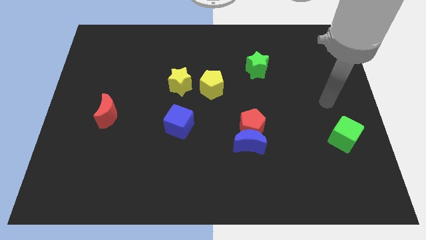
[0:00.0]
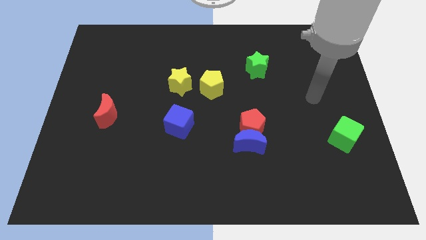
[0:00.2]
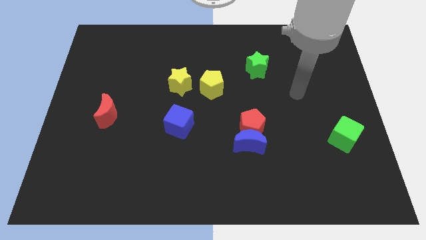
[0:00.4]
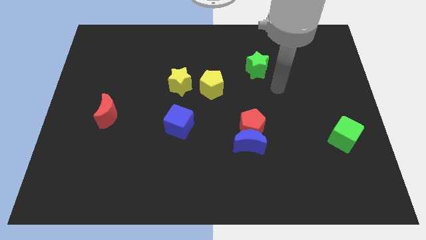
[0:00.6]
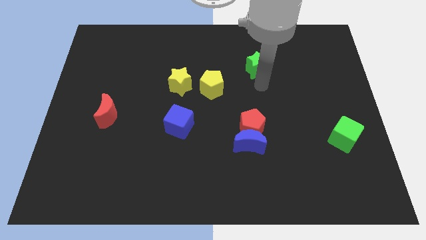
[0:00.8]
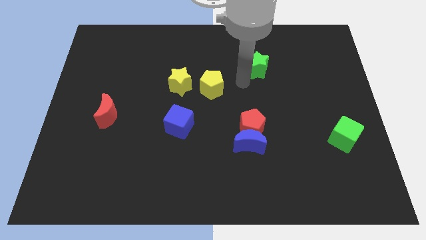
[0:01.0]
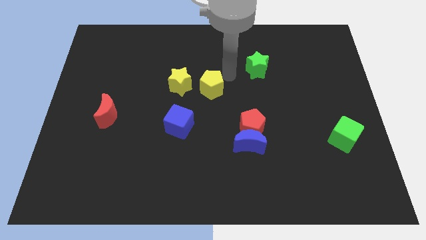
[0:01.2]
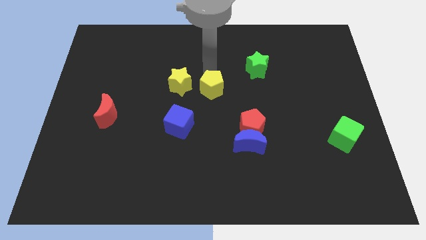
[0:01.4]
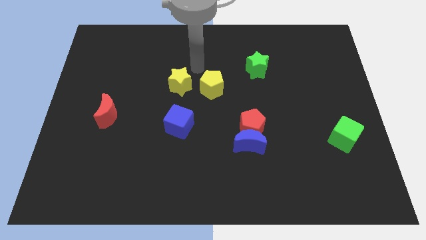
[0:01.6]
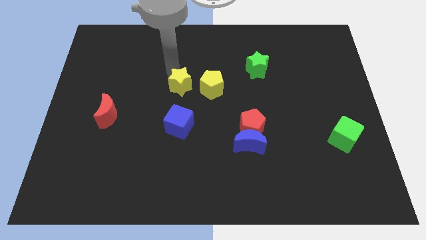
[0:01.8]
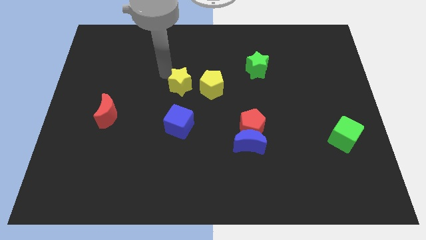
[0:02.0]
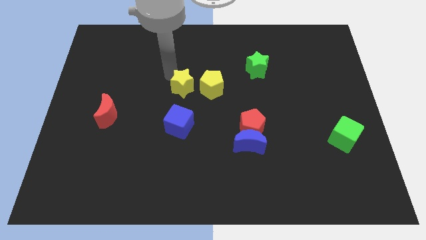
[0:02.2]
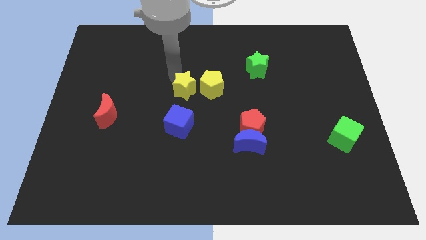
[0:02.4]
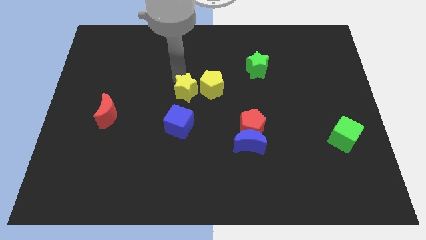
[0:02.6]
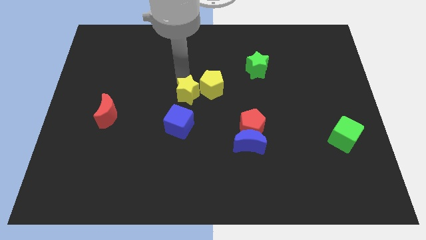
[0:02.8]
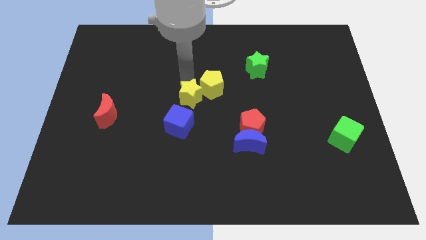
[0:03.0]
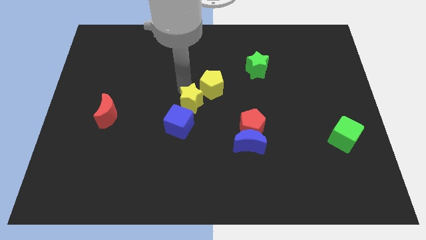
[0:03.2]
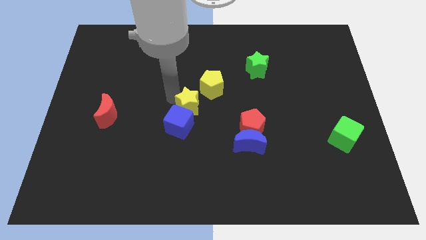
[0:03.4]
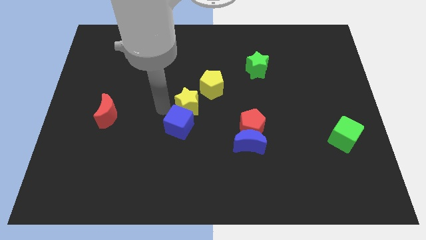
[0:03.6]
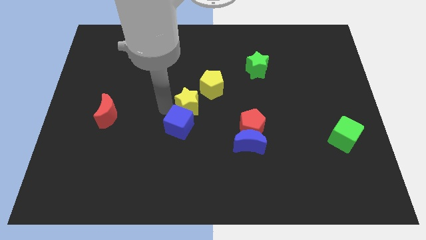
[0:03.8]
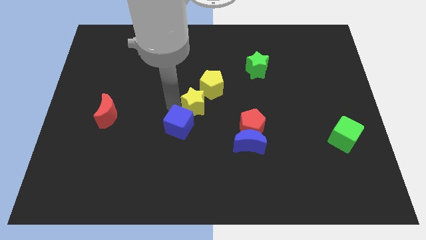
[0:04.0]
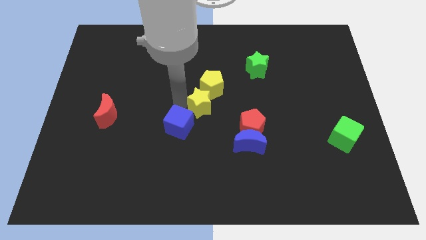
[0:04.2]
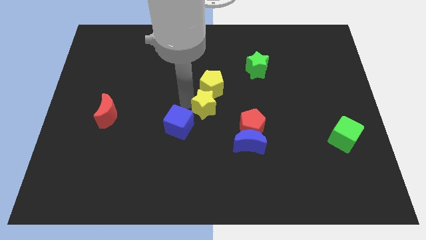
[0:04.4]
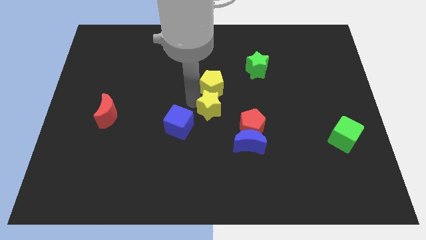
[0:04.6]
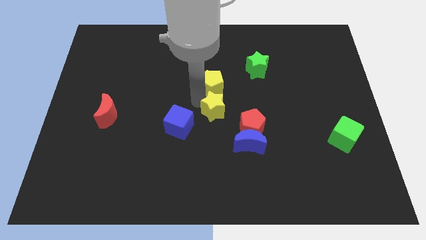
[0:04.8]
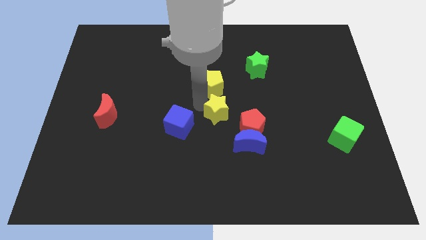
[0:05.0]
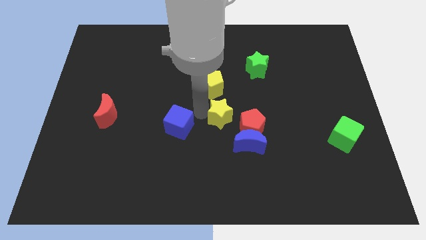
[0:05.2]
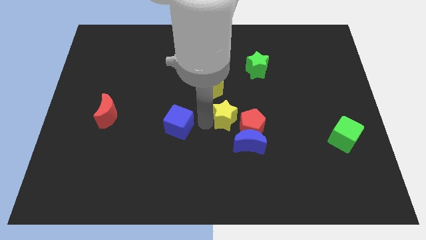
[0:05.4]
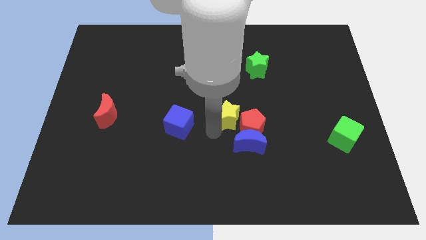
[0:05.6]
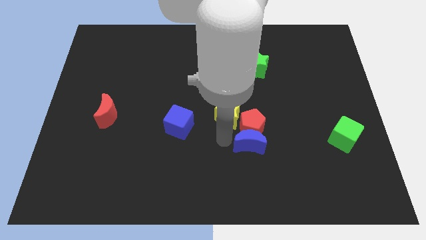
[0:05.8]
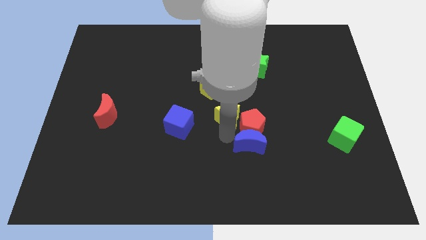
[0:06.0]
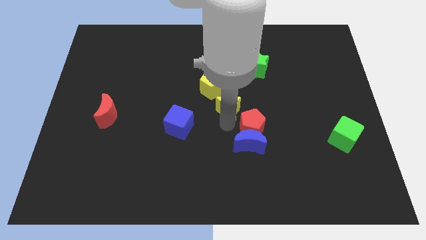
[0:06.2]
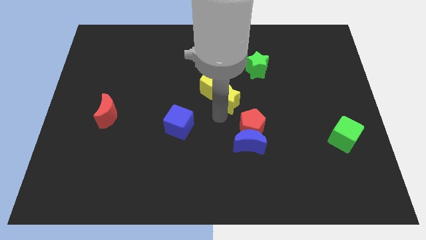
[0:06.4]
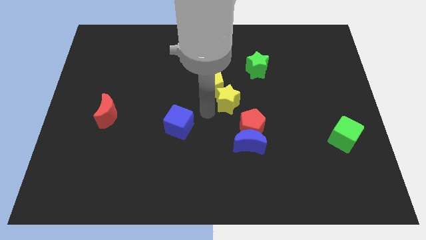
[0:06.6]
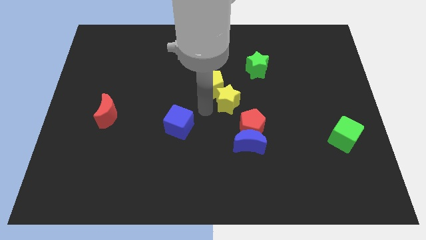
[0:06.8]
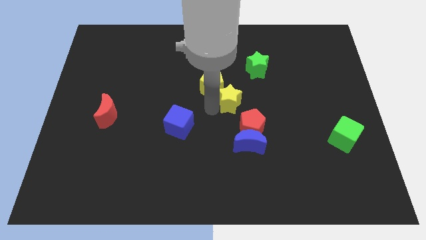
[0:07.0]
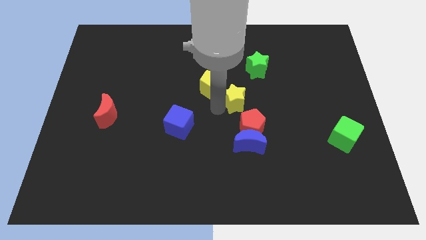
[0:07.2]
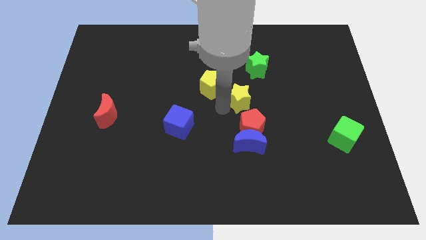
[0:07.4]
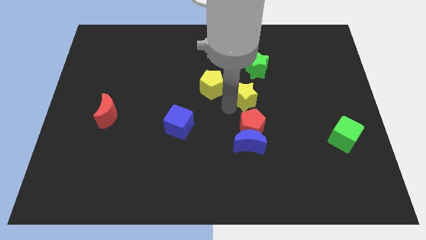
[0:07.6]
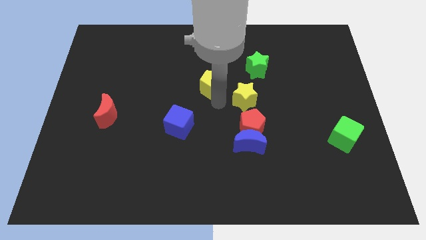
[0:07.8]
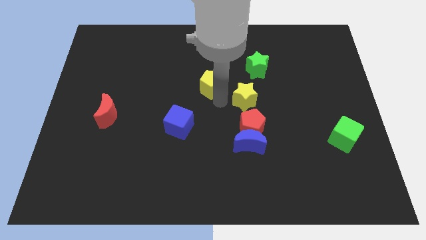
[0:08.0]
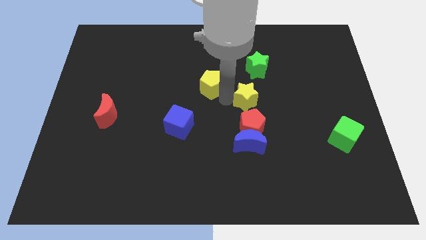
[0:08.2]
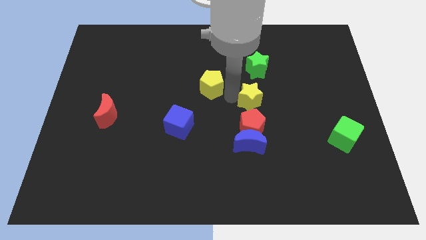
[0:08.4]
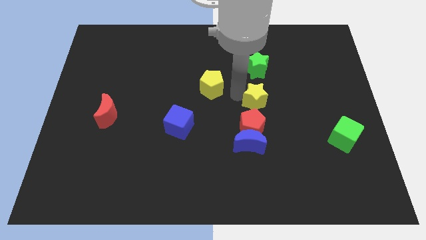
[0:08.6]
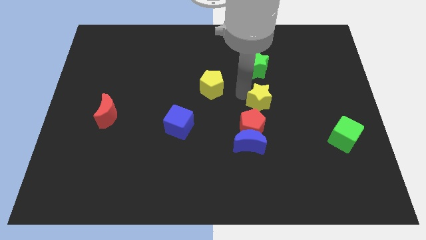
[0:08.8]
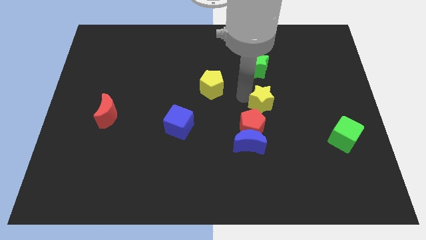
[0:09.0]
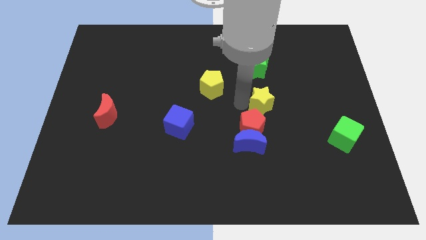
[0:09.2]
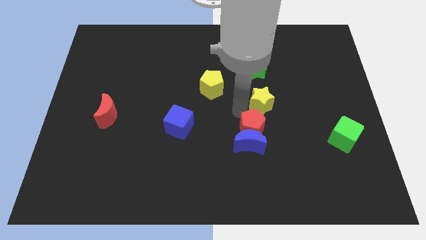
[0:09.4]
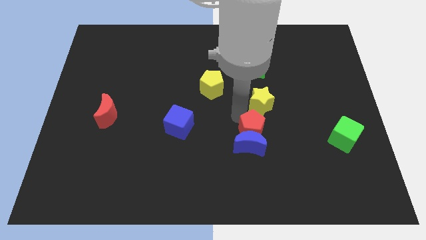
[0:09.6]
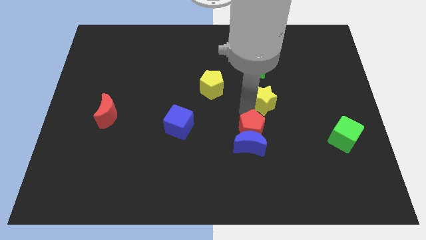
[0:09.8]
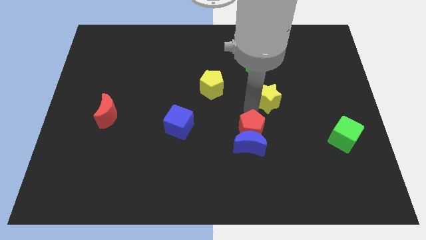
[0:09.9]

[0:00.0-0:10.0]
move the yellow star to the right

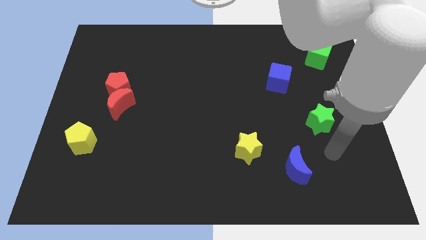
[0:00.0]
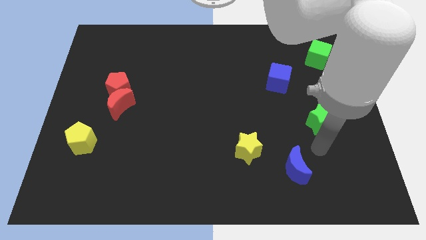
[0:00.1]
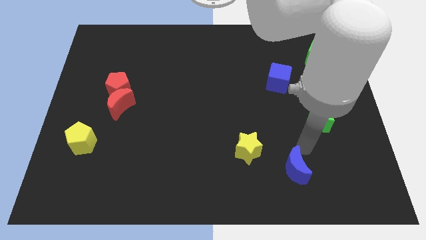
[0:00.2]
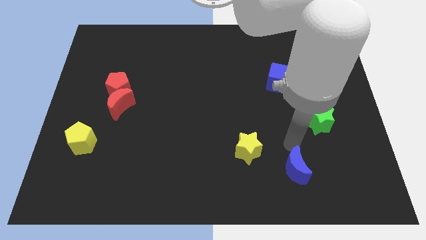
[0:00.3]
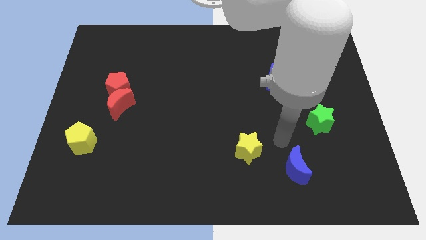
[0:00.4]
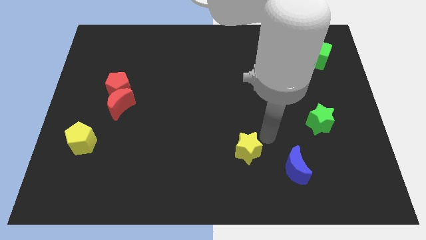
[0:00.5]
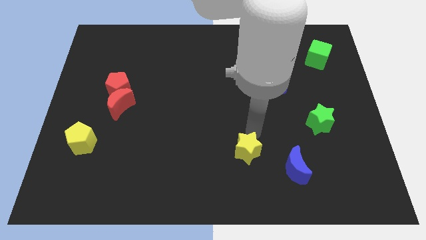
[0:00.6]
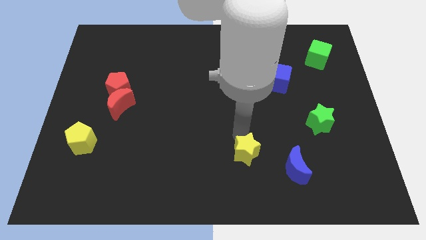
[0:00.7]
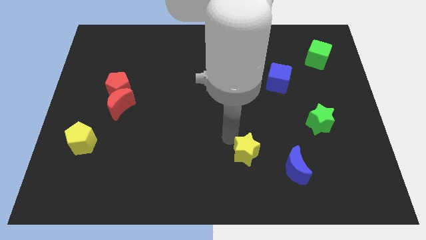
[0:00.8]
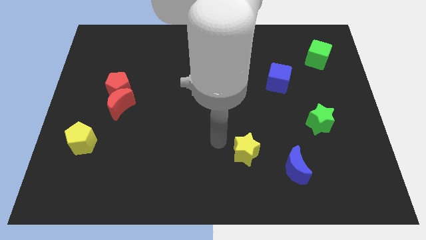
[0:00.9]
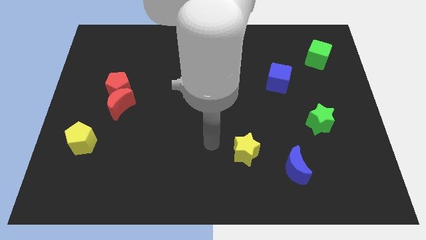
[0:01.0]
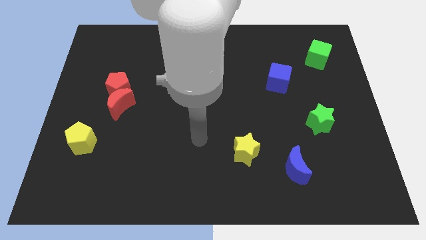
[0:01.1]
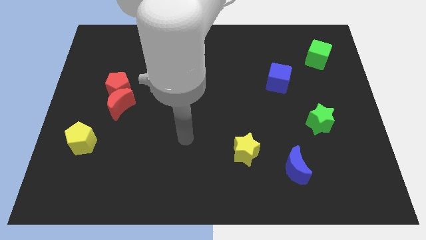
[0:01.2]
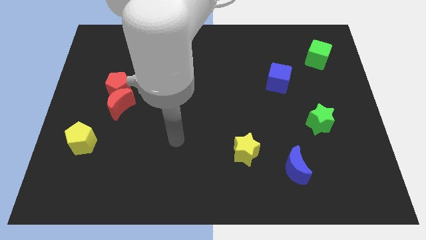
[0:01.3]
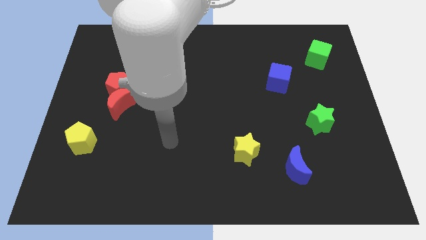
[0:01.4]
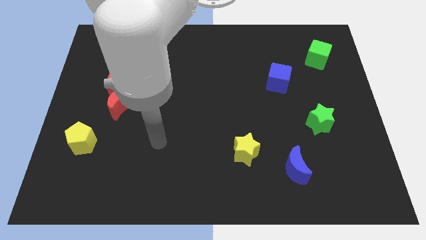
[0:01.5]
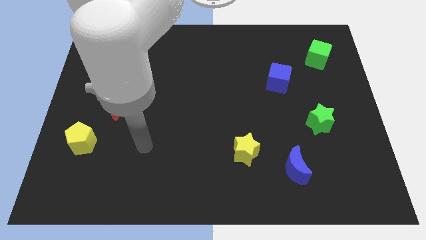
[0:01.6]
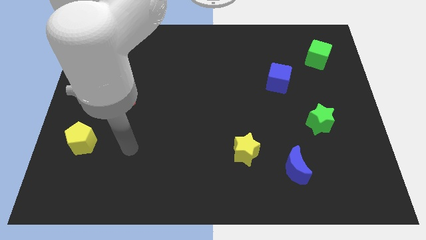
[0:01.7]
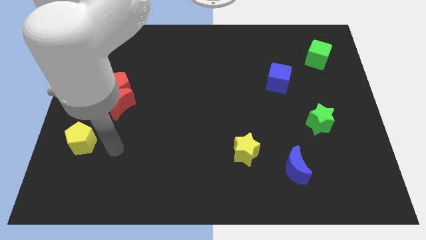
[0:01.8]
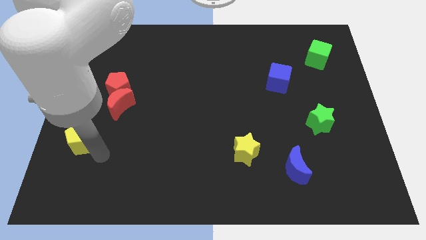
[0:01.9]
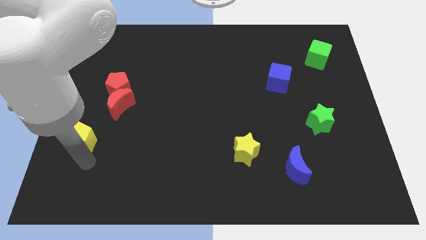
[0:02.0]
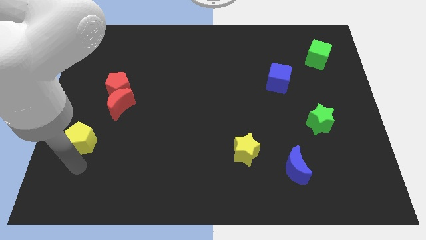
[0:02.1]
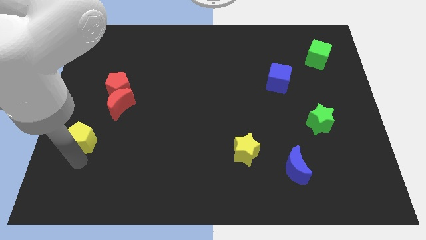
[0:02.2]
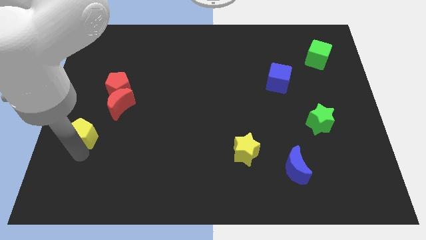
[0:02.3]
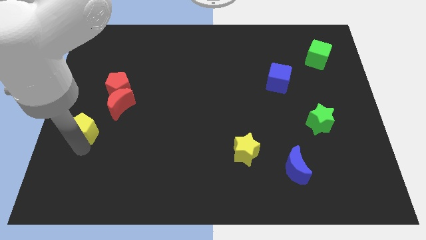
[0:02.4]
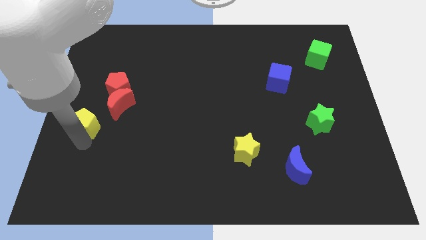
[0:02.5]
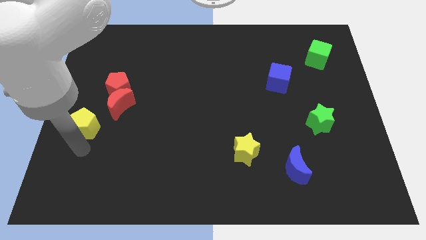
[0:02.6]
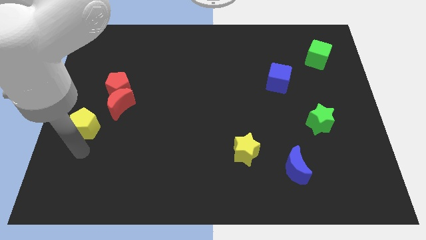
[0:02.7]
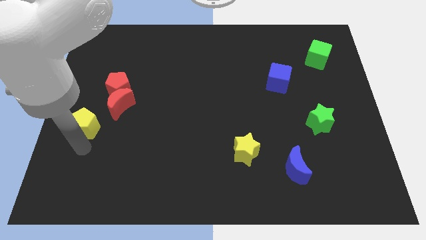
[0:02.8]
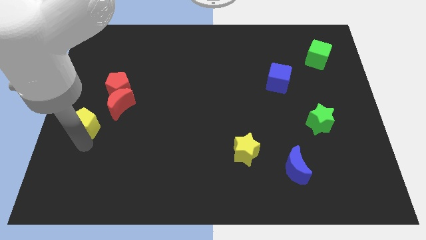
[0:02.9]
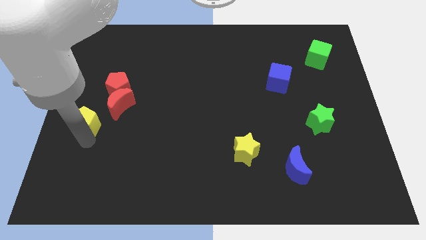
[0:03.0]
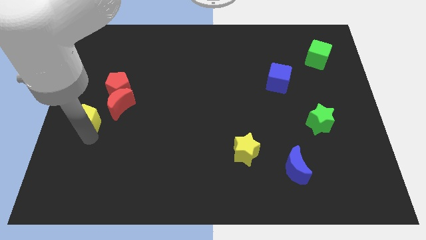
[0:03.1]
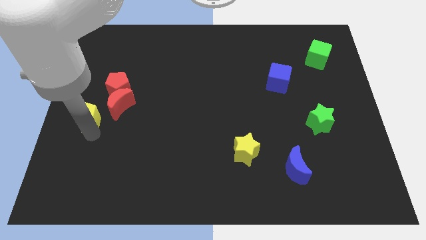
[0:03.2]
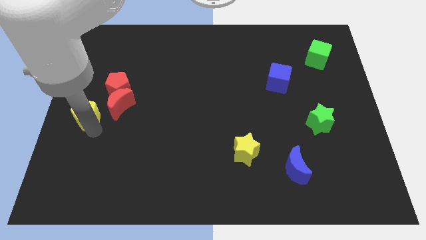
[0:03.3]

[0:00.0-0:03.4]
push the yellow pentagon upwards slightly
